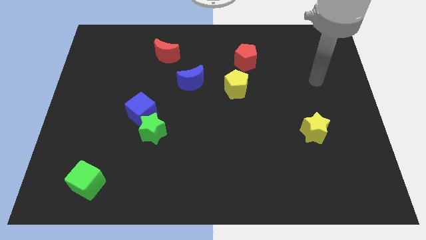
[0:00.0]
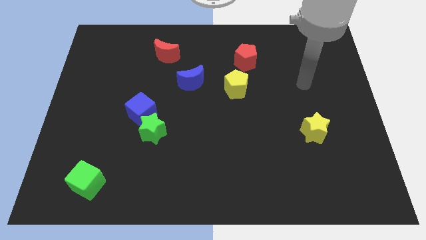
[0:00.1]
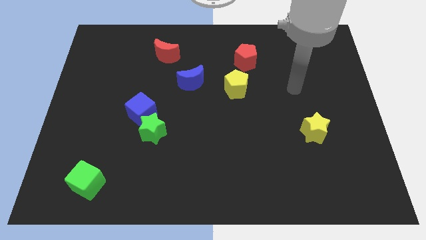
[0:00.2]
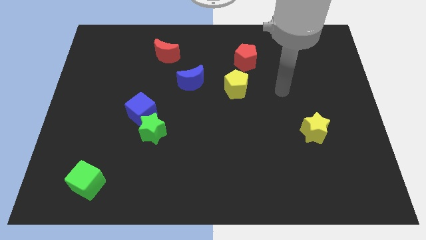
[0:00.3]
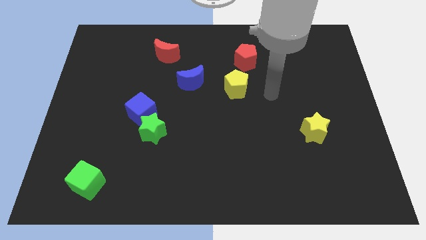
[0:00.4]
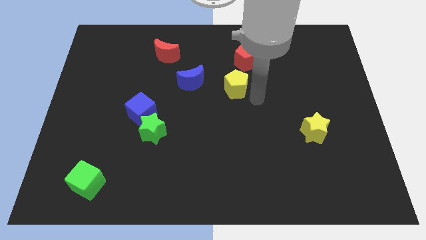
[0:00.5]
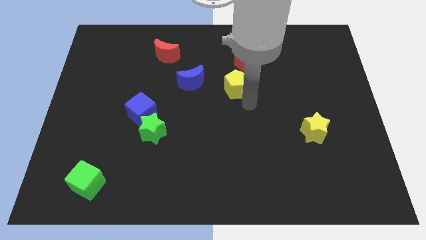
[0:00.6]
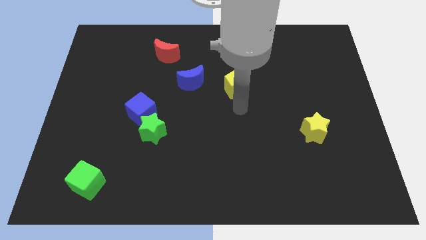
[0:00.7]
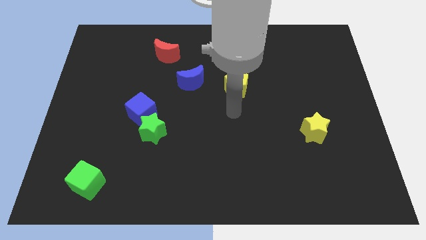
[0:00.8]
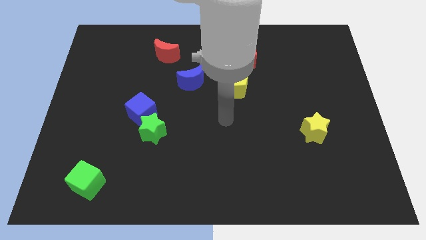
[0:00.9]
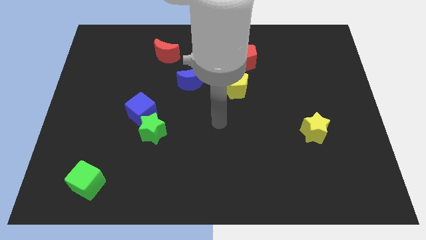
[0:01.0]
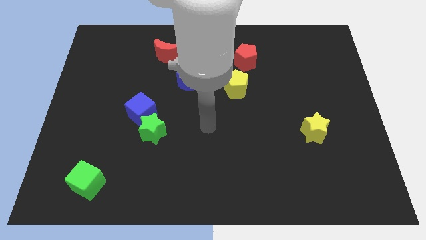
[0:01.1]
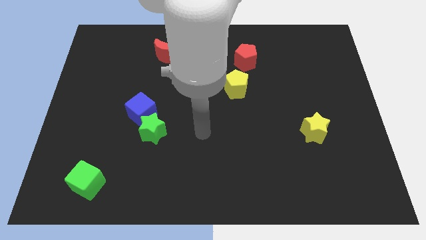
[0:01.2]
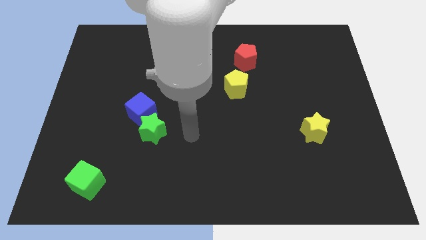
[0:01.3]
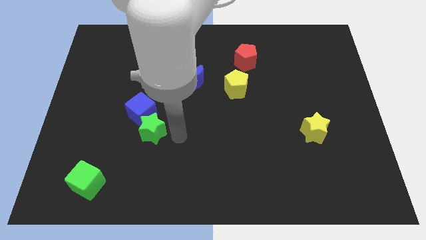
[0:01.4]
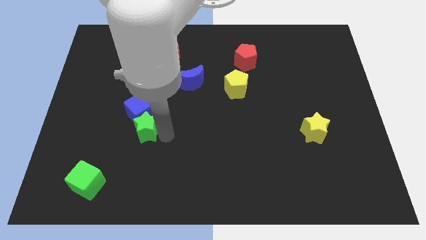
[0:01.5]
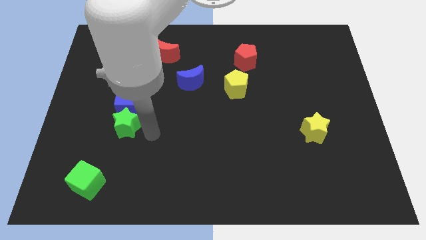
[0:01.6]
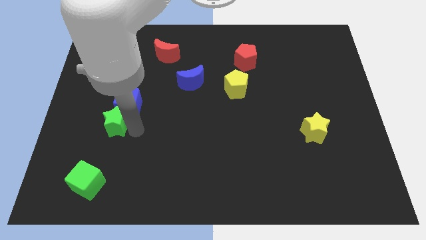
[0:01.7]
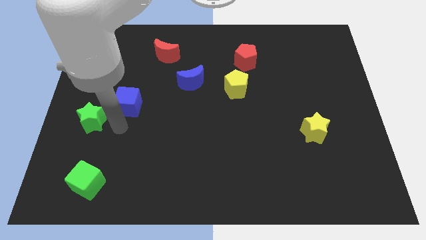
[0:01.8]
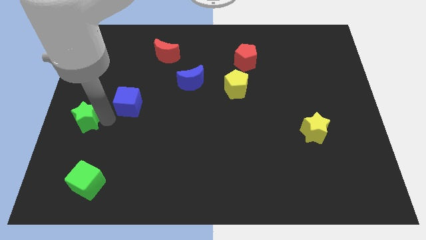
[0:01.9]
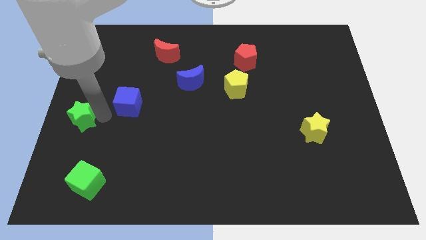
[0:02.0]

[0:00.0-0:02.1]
separate the blue cube from the green star

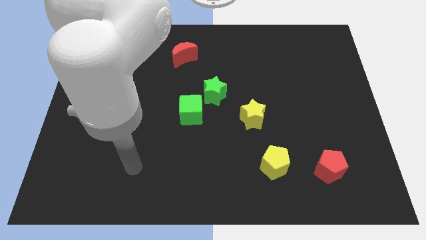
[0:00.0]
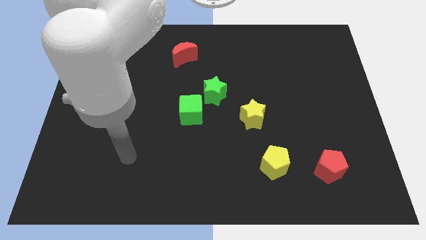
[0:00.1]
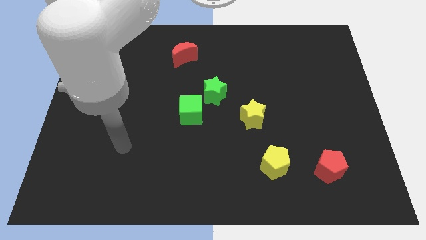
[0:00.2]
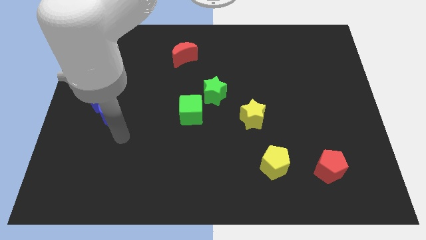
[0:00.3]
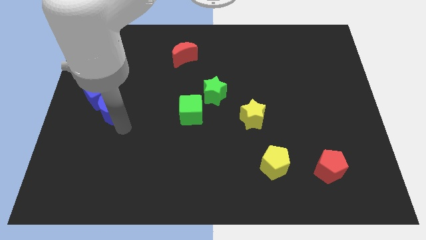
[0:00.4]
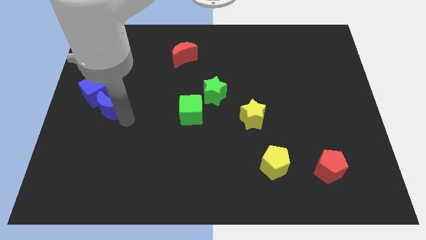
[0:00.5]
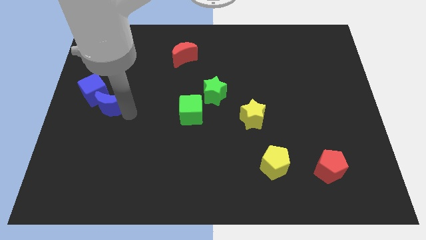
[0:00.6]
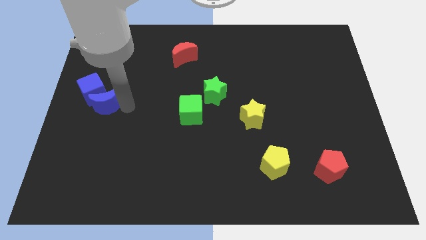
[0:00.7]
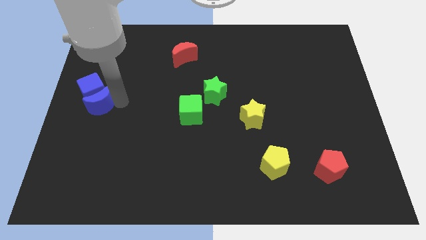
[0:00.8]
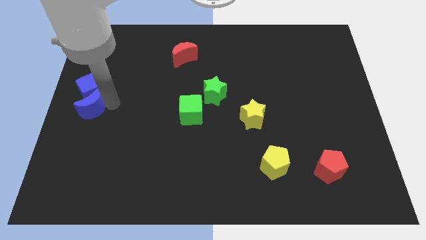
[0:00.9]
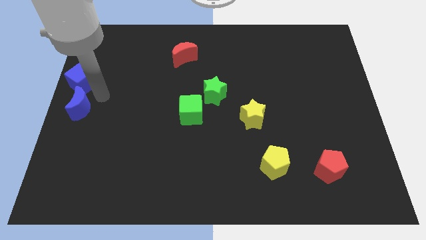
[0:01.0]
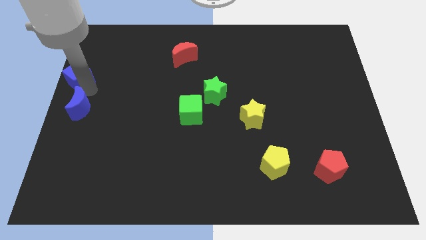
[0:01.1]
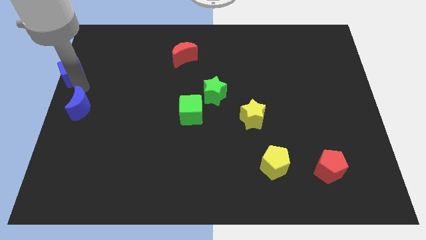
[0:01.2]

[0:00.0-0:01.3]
separate the blue moon from the blue cube

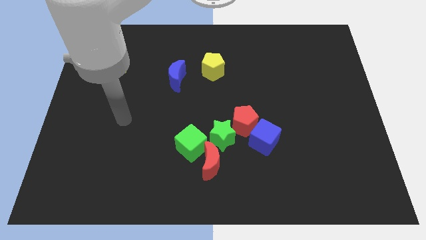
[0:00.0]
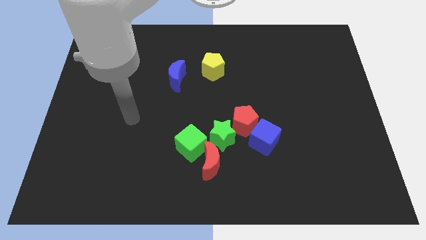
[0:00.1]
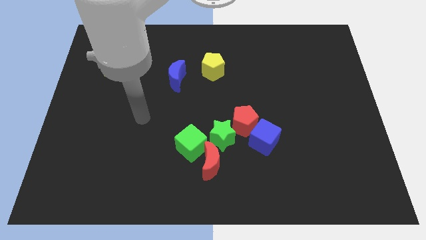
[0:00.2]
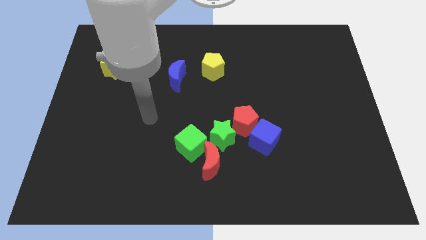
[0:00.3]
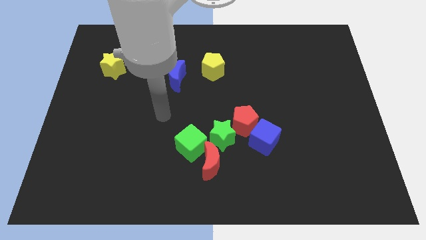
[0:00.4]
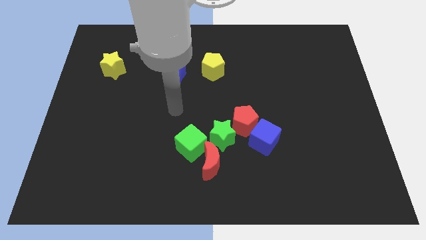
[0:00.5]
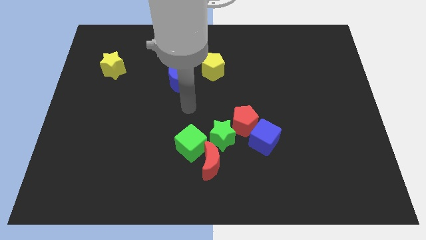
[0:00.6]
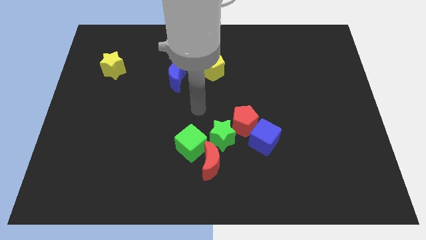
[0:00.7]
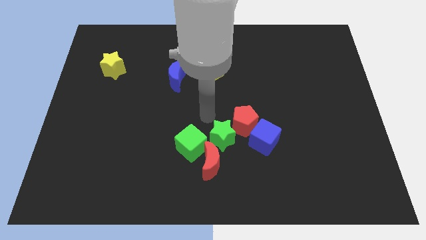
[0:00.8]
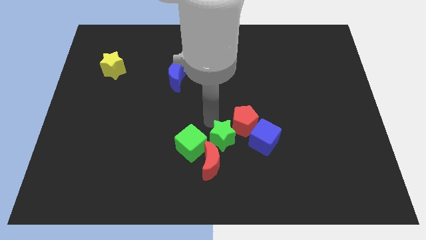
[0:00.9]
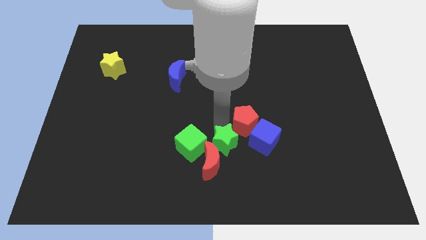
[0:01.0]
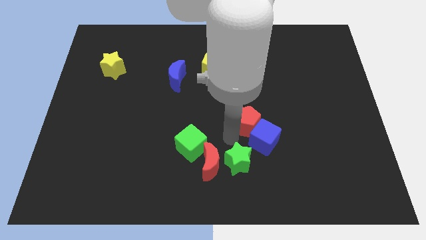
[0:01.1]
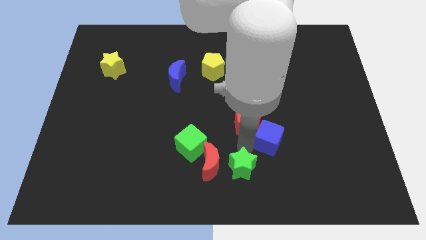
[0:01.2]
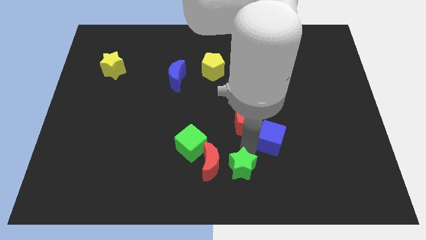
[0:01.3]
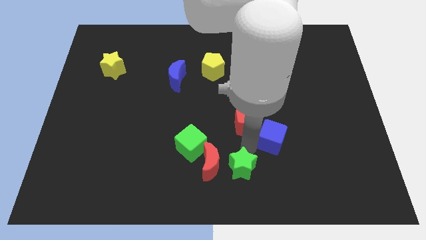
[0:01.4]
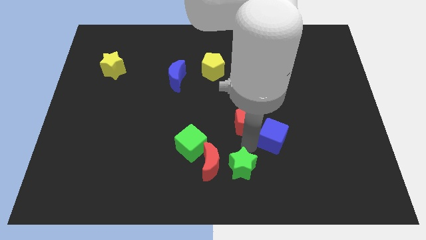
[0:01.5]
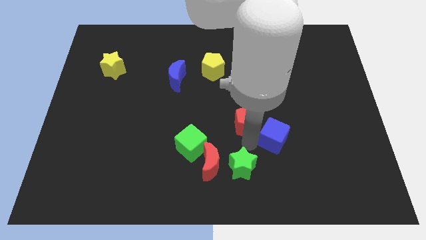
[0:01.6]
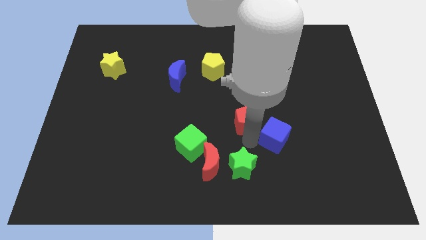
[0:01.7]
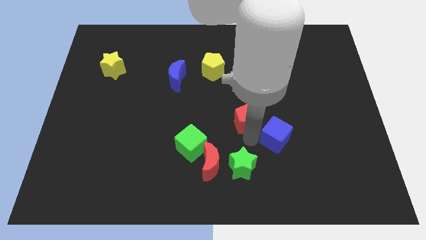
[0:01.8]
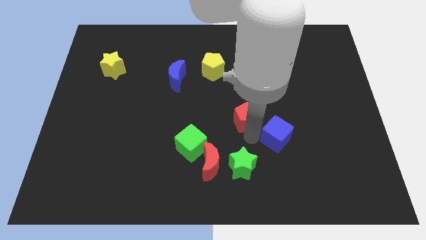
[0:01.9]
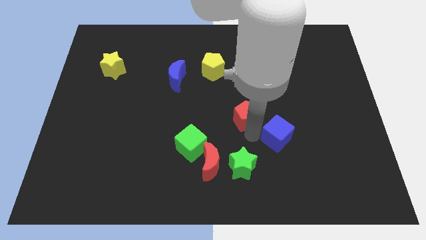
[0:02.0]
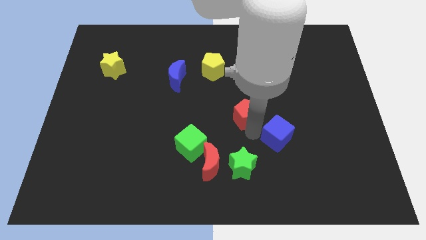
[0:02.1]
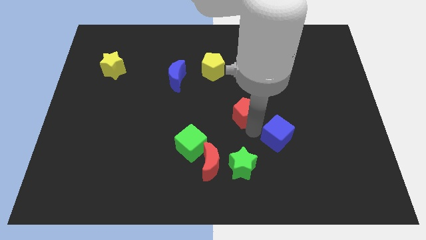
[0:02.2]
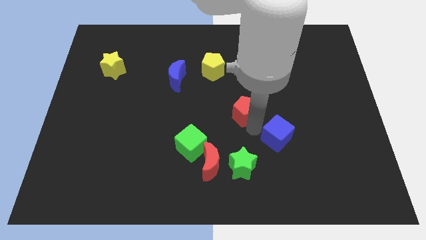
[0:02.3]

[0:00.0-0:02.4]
pull the red pentagon apart from the green star and blue cube

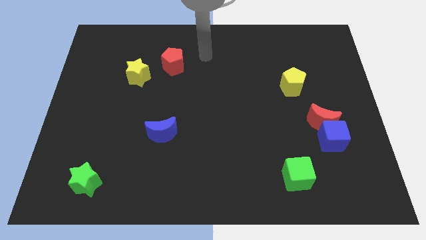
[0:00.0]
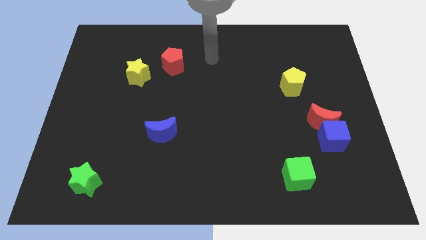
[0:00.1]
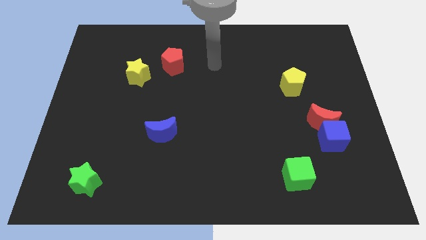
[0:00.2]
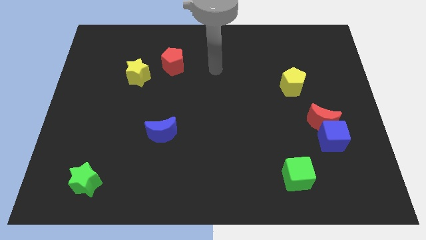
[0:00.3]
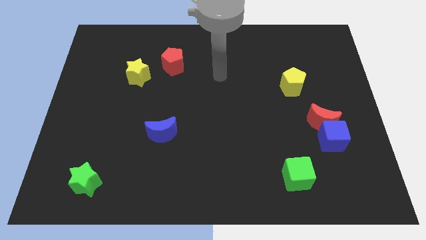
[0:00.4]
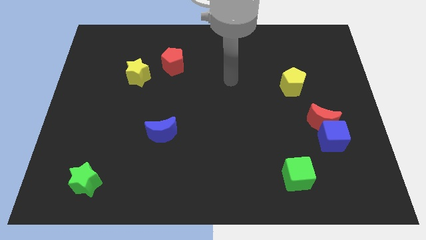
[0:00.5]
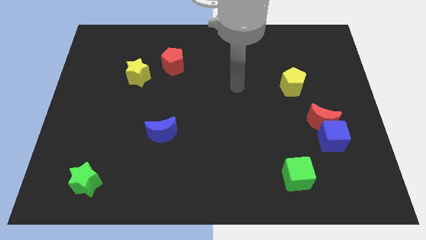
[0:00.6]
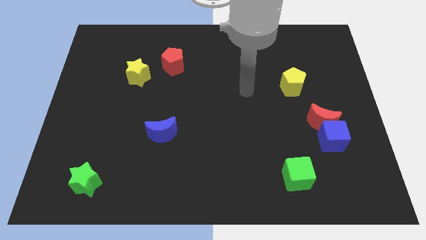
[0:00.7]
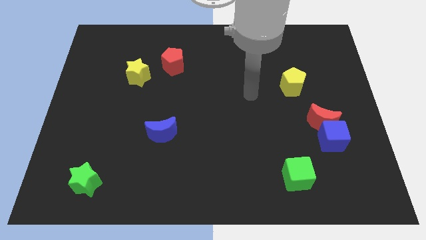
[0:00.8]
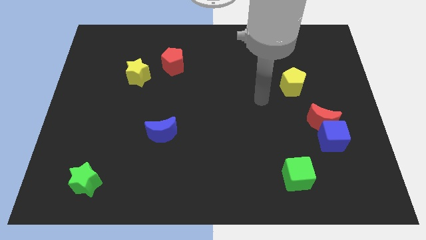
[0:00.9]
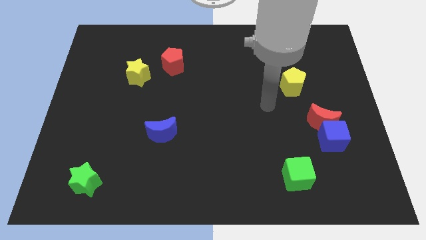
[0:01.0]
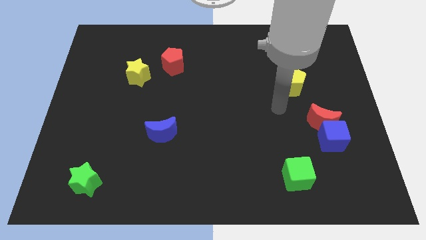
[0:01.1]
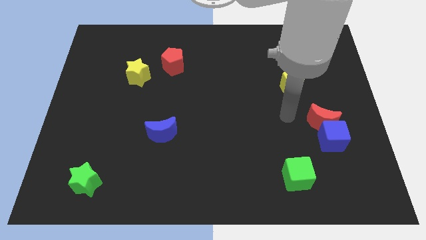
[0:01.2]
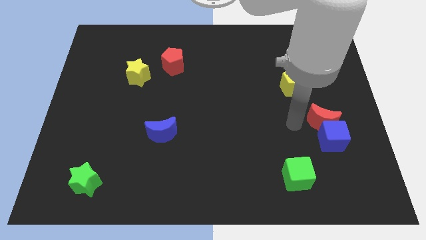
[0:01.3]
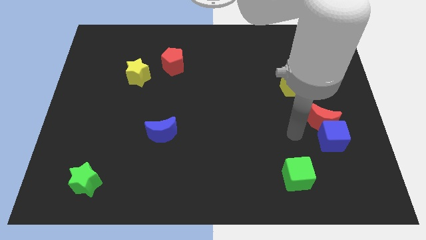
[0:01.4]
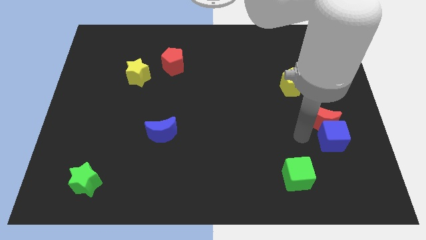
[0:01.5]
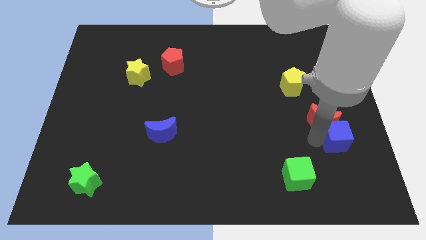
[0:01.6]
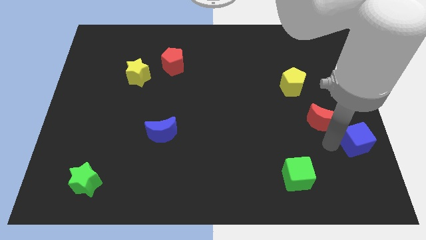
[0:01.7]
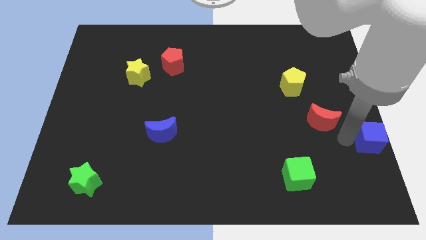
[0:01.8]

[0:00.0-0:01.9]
pull the red moon apart from the blue cube

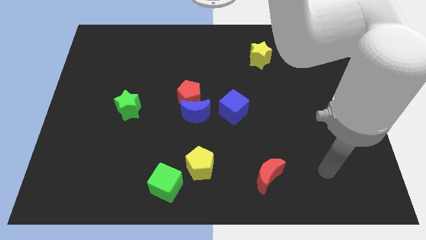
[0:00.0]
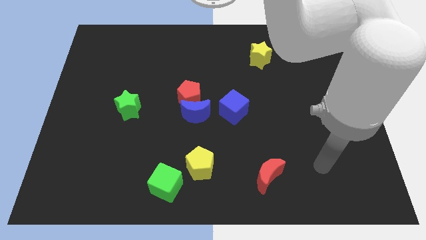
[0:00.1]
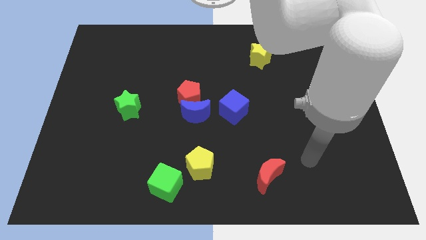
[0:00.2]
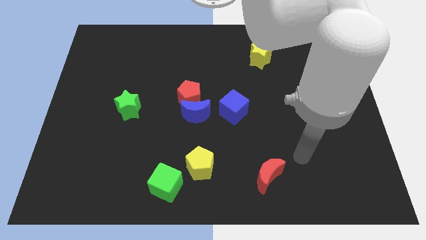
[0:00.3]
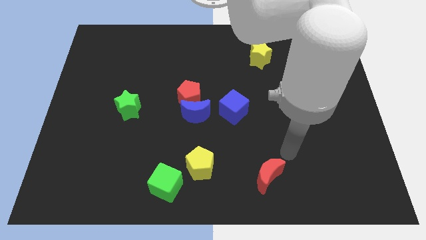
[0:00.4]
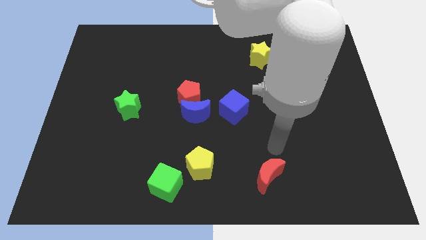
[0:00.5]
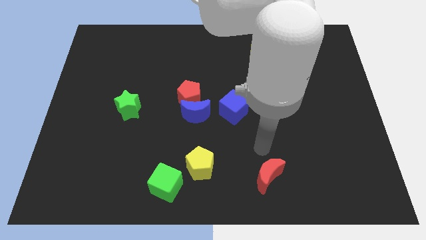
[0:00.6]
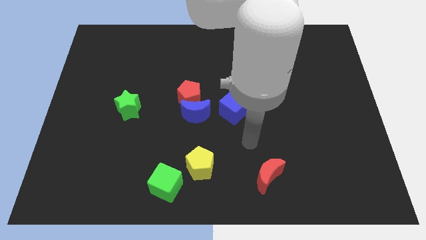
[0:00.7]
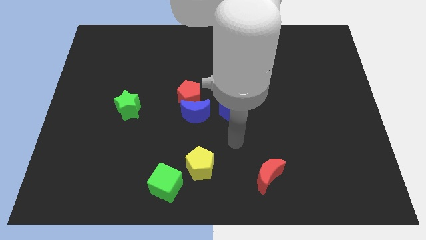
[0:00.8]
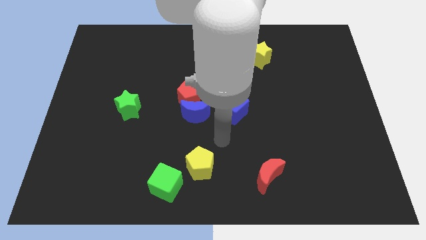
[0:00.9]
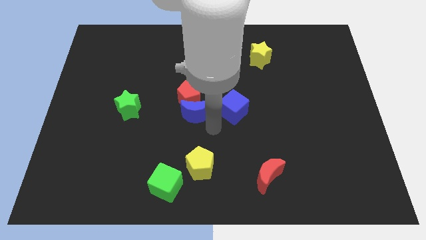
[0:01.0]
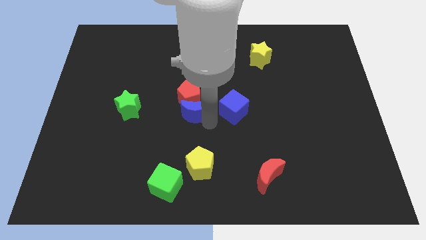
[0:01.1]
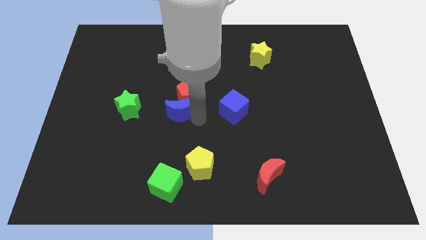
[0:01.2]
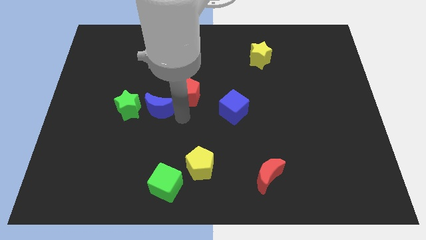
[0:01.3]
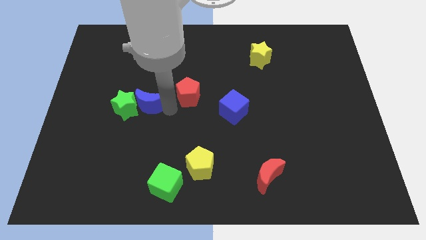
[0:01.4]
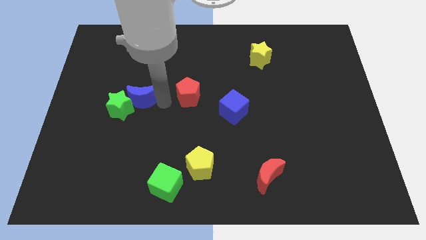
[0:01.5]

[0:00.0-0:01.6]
move the red pentagon away from the blue moon

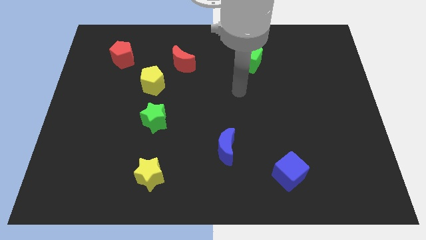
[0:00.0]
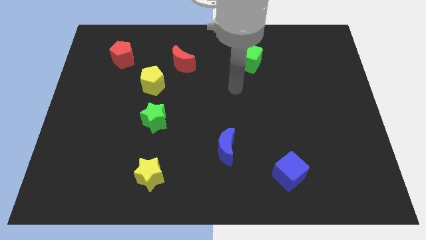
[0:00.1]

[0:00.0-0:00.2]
separate the red moon from the yellow pentagon
